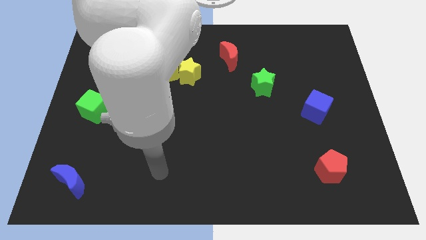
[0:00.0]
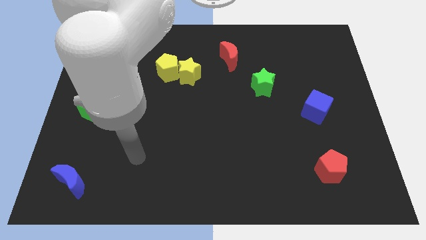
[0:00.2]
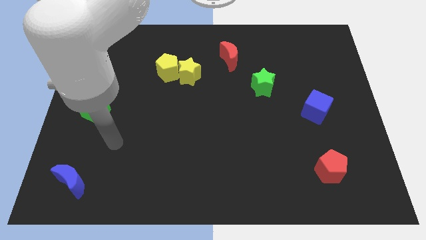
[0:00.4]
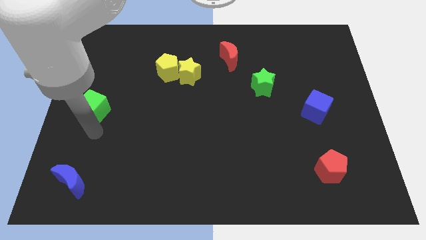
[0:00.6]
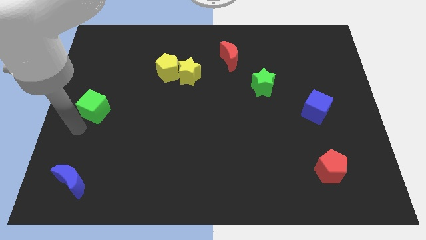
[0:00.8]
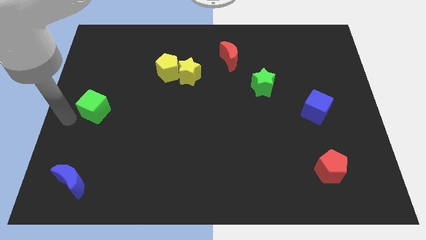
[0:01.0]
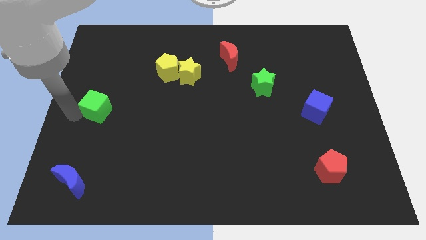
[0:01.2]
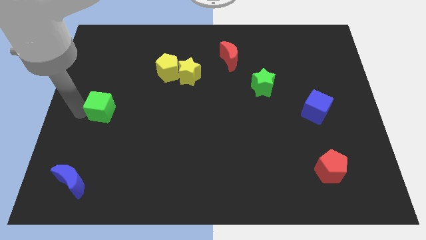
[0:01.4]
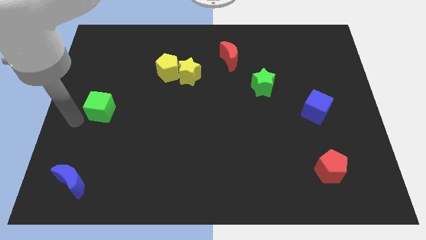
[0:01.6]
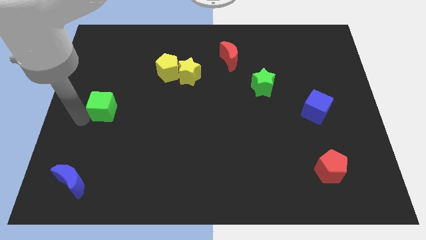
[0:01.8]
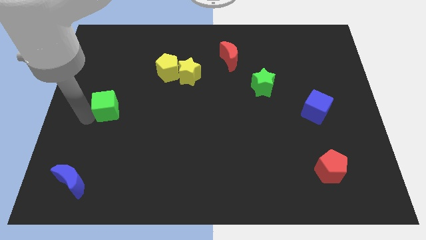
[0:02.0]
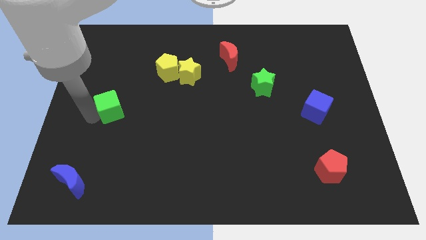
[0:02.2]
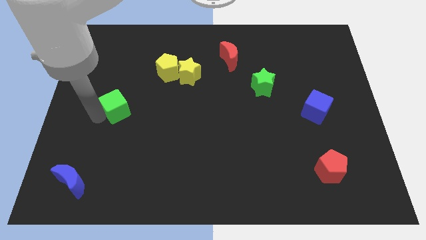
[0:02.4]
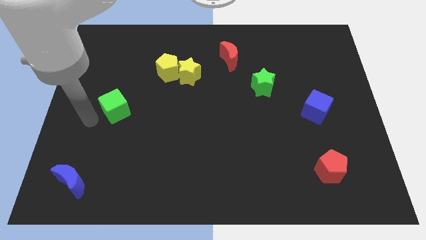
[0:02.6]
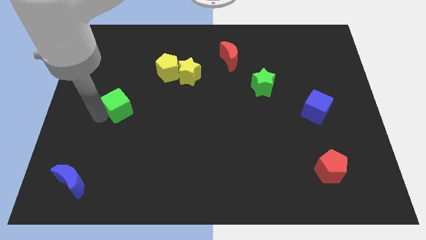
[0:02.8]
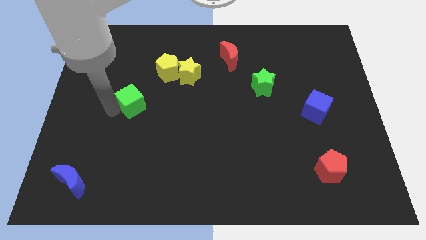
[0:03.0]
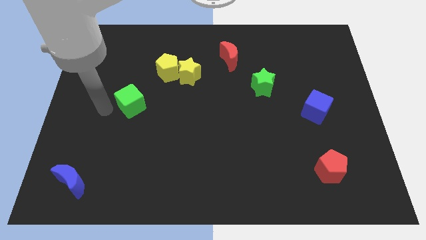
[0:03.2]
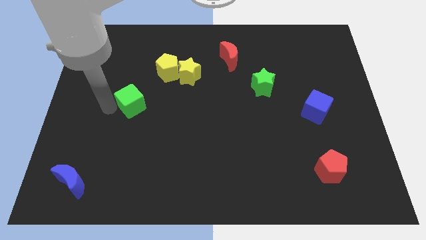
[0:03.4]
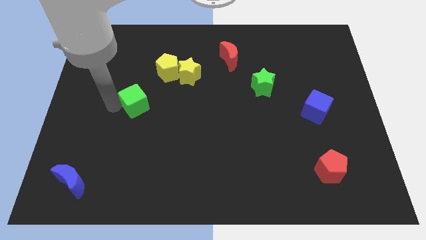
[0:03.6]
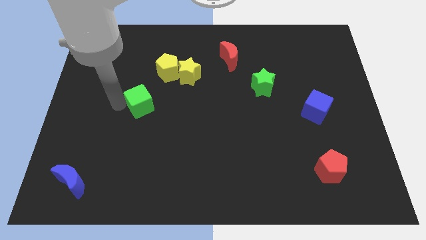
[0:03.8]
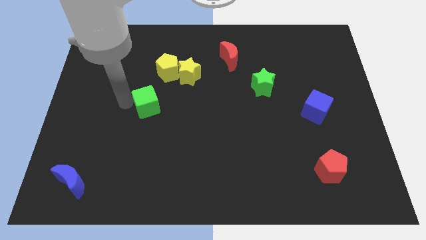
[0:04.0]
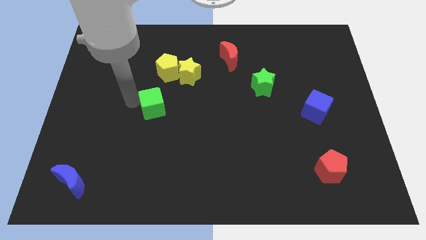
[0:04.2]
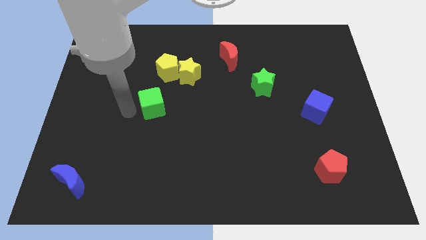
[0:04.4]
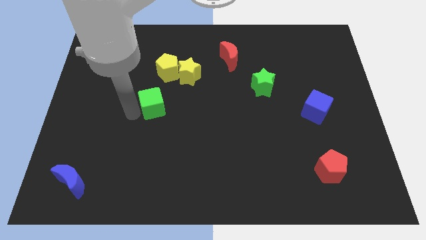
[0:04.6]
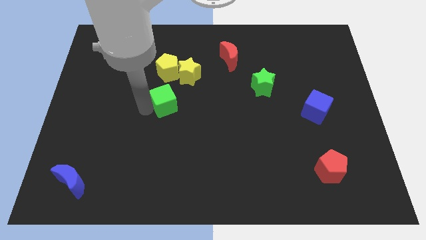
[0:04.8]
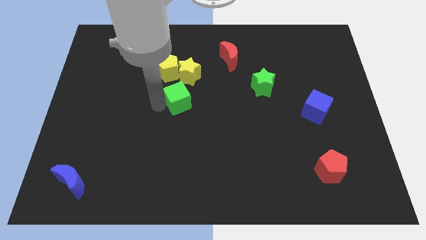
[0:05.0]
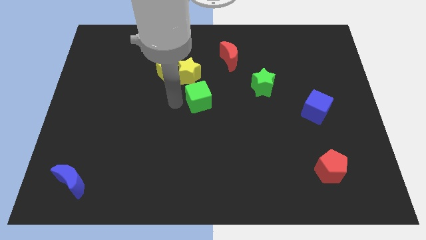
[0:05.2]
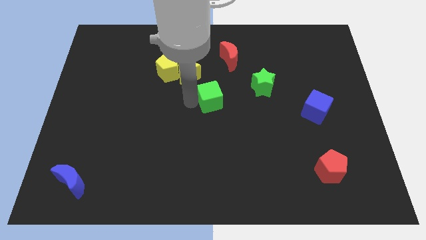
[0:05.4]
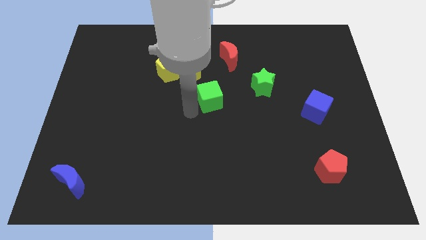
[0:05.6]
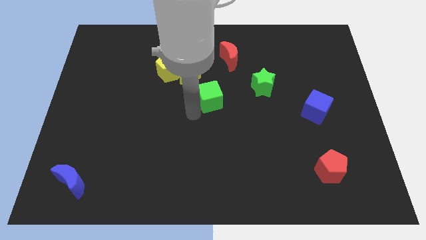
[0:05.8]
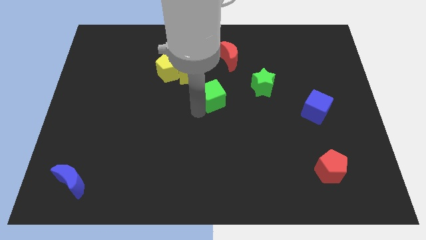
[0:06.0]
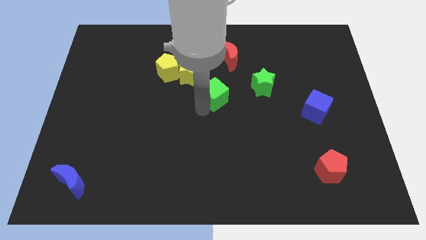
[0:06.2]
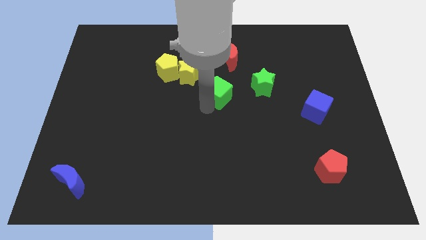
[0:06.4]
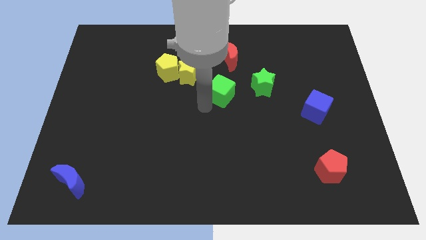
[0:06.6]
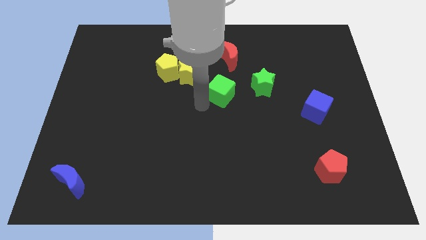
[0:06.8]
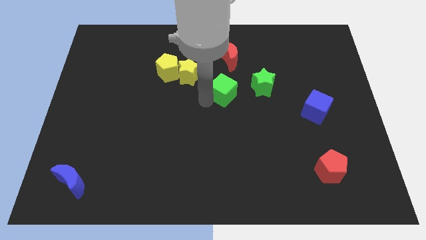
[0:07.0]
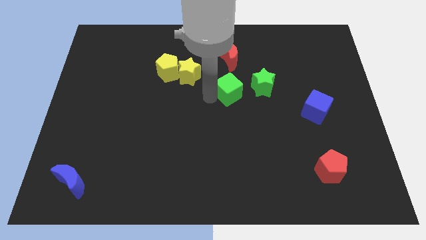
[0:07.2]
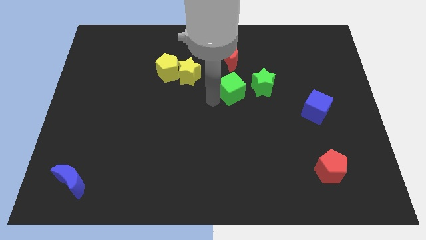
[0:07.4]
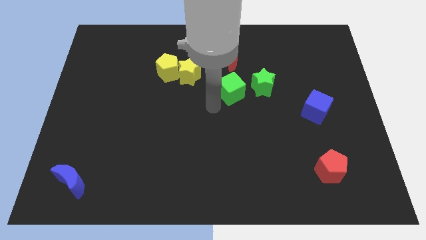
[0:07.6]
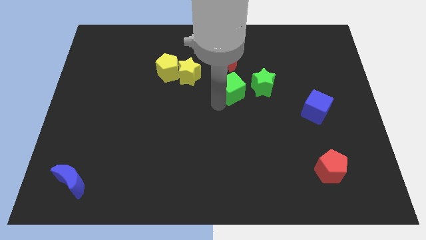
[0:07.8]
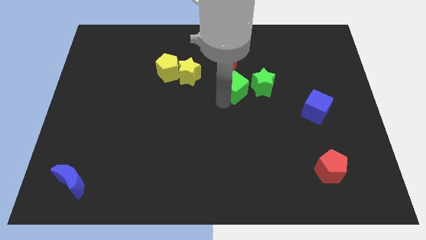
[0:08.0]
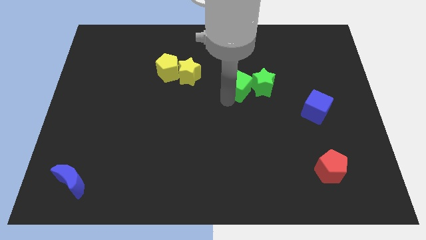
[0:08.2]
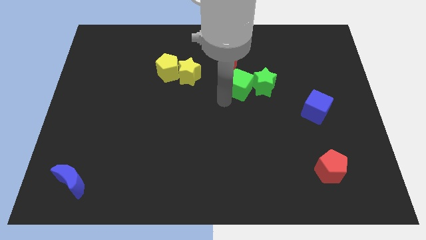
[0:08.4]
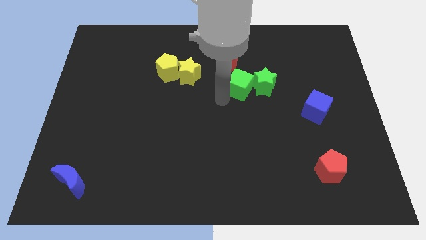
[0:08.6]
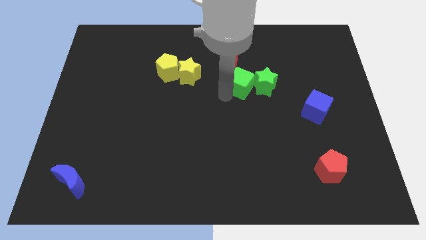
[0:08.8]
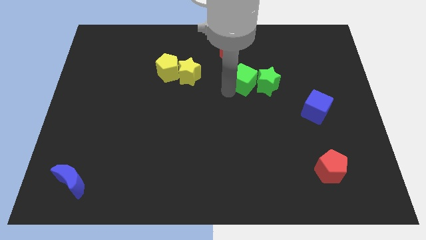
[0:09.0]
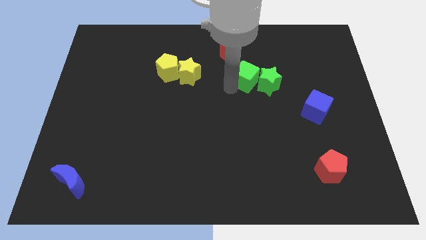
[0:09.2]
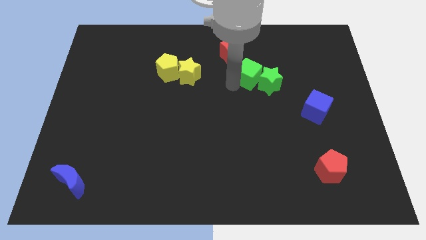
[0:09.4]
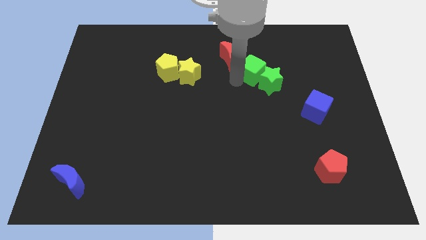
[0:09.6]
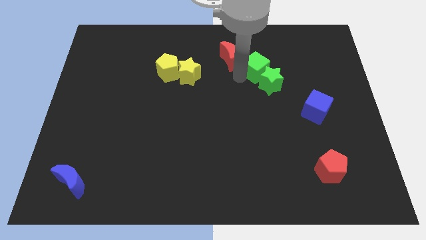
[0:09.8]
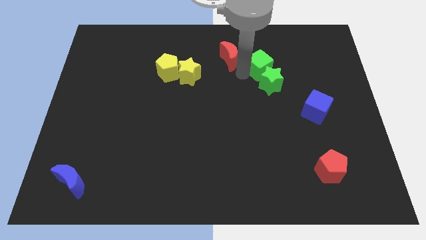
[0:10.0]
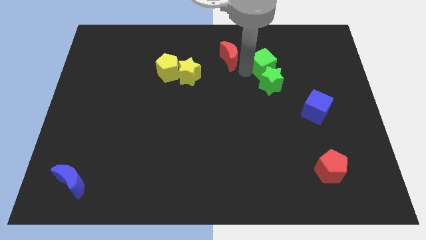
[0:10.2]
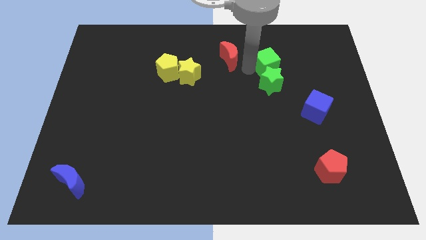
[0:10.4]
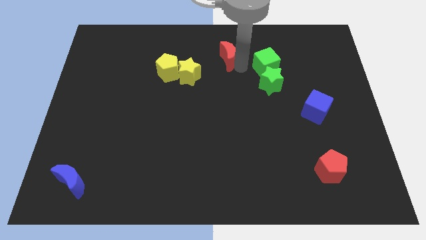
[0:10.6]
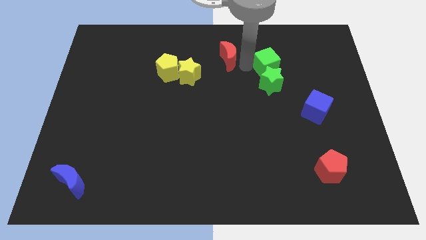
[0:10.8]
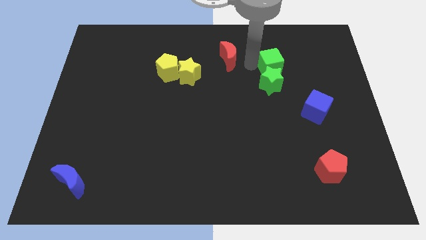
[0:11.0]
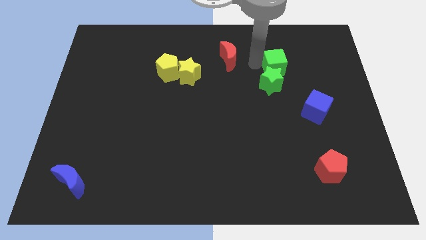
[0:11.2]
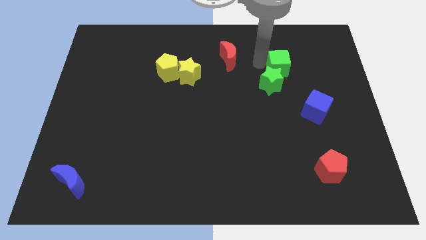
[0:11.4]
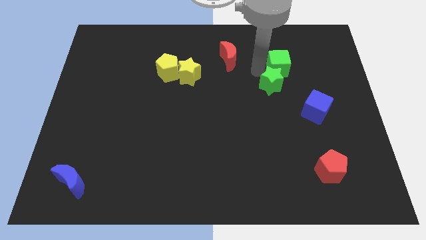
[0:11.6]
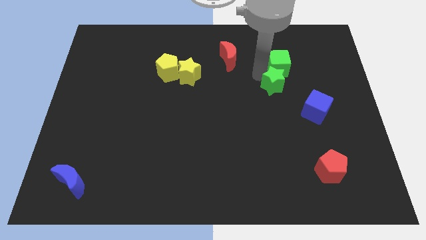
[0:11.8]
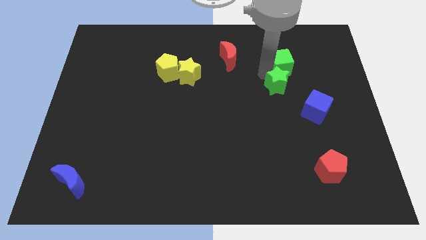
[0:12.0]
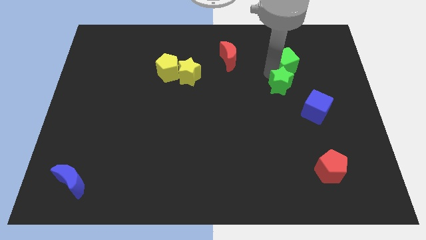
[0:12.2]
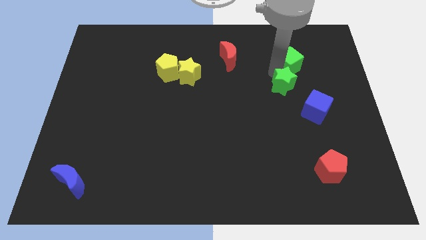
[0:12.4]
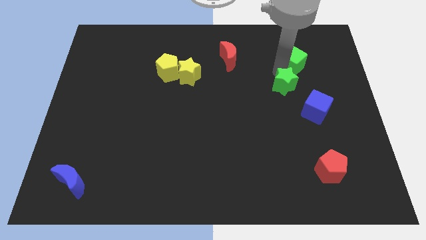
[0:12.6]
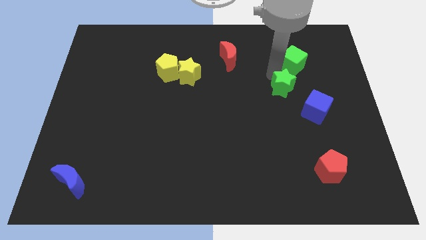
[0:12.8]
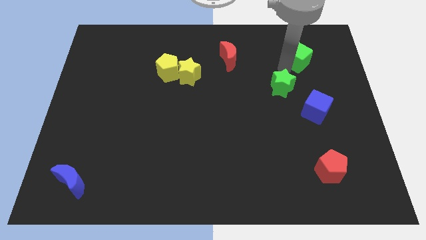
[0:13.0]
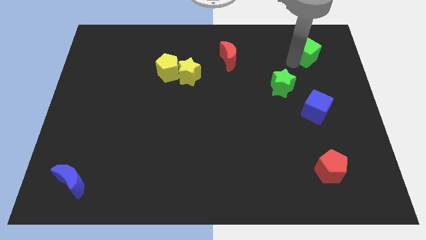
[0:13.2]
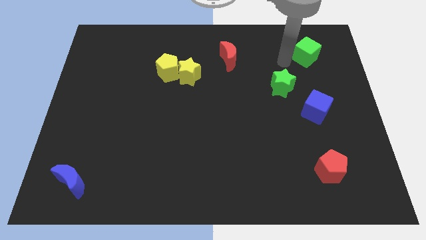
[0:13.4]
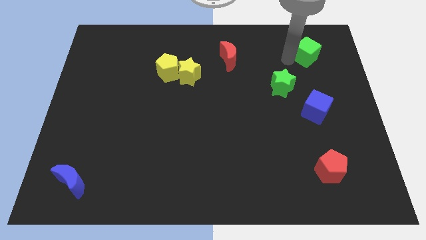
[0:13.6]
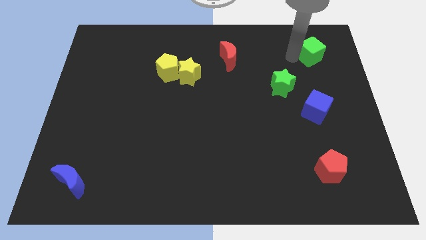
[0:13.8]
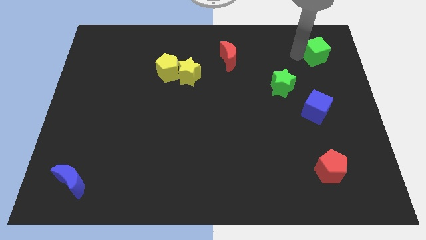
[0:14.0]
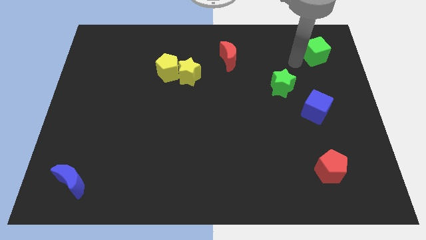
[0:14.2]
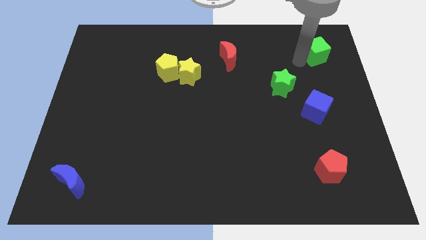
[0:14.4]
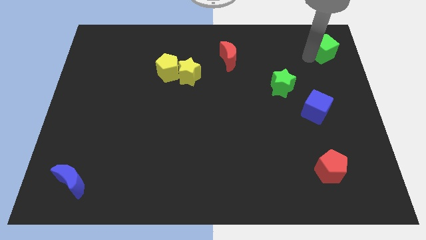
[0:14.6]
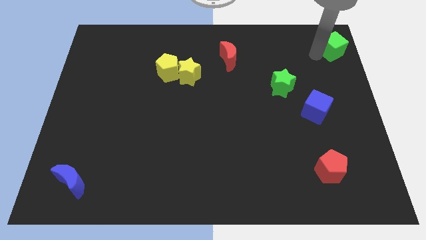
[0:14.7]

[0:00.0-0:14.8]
slide the green cube to the top right of the board
